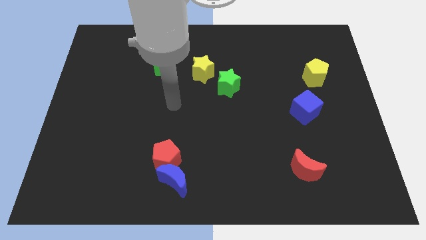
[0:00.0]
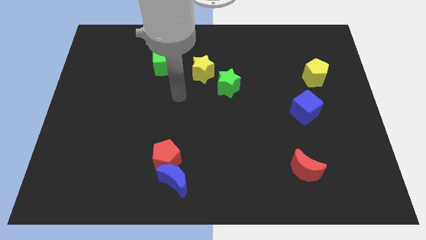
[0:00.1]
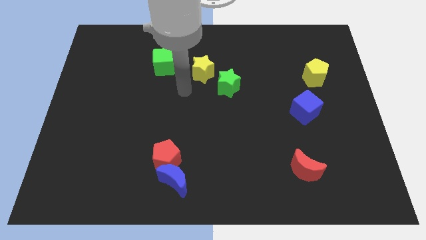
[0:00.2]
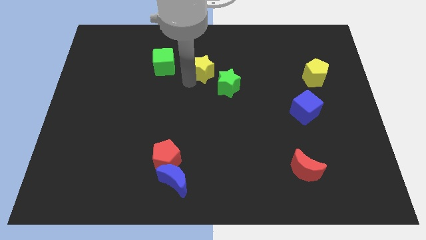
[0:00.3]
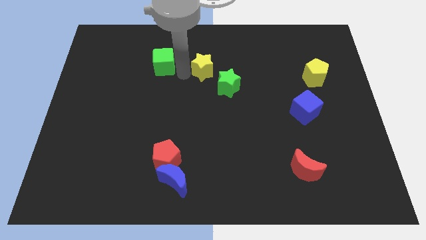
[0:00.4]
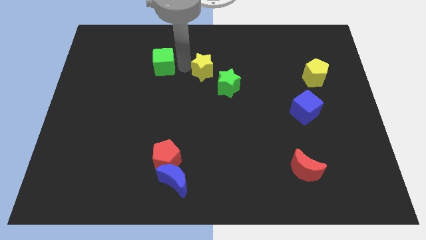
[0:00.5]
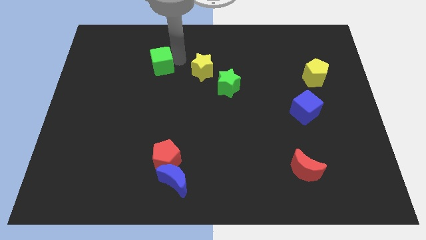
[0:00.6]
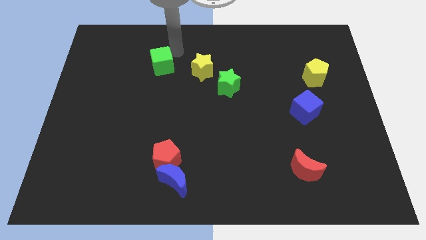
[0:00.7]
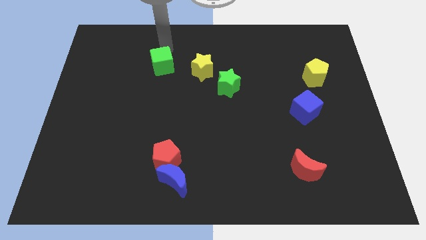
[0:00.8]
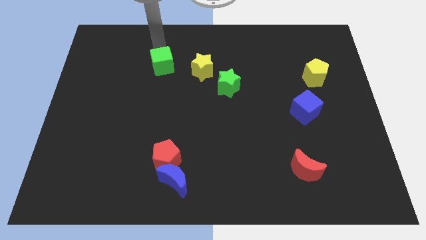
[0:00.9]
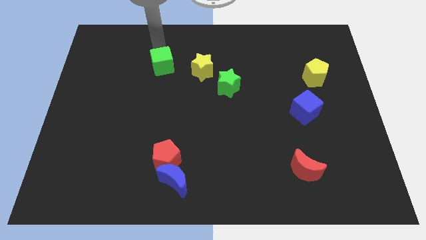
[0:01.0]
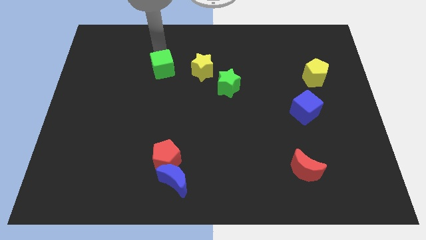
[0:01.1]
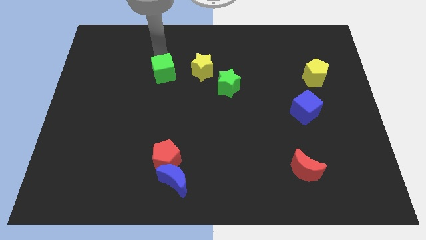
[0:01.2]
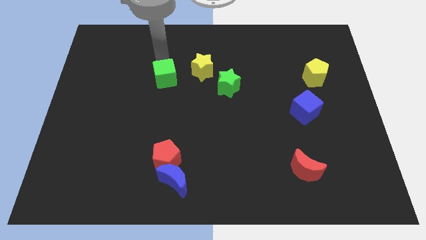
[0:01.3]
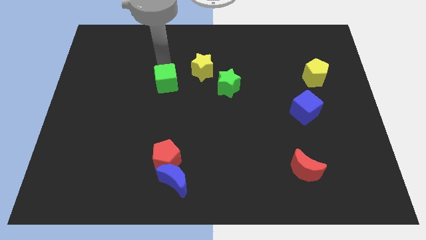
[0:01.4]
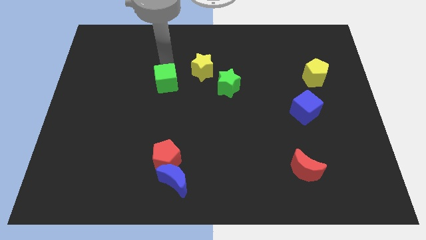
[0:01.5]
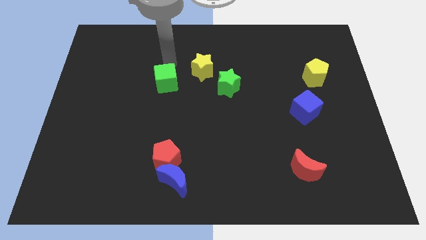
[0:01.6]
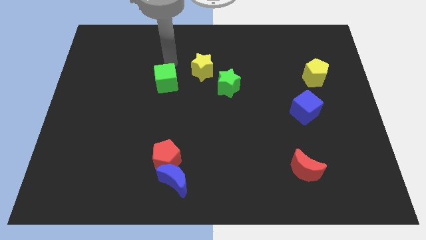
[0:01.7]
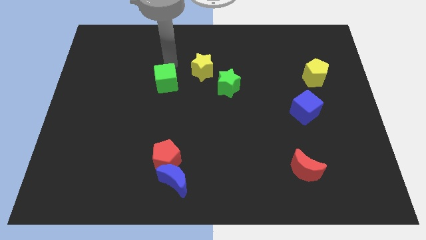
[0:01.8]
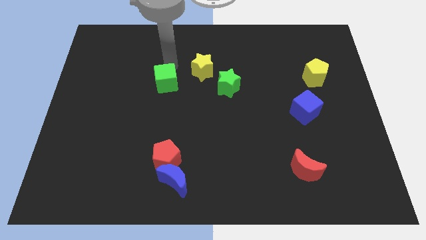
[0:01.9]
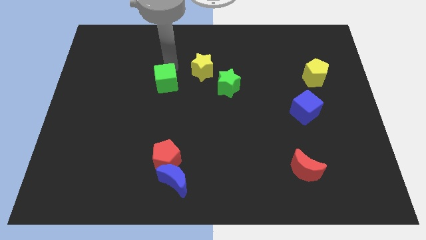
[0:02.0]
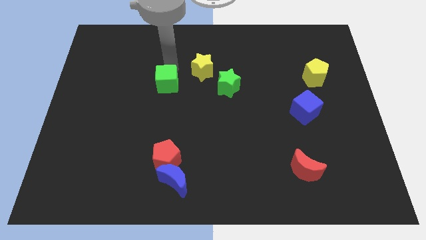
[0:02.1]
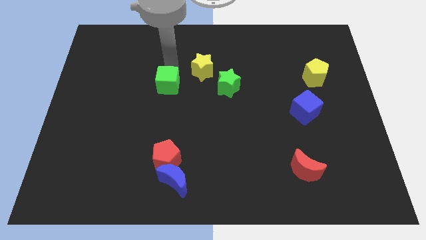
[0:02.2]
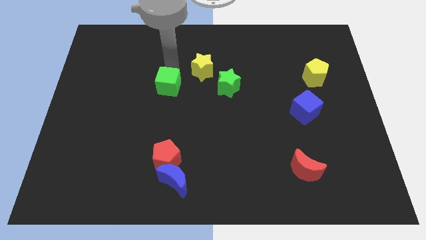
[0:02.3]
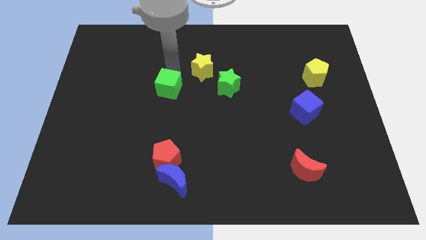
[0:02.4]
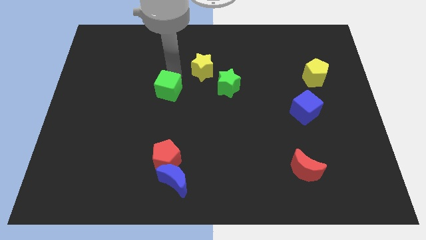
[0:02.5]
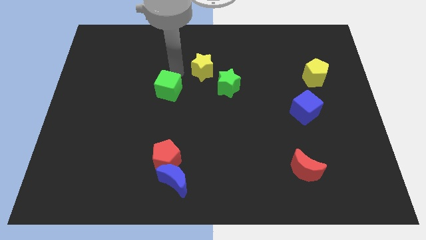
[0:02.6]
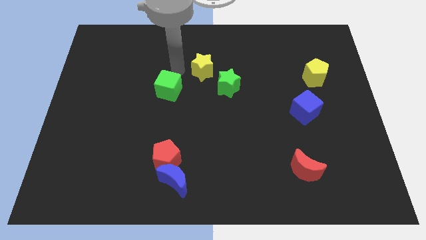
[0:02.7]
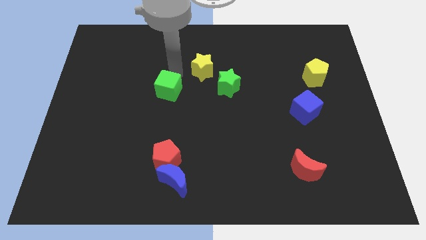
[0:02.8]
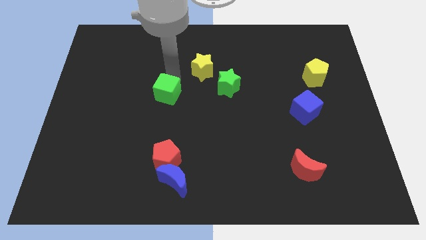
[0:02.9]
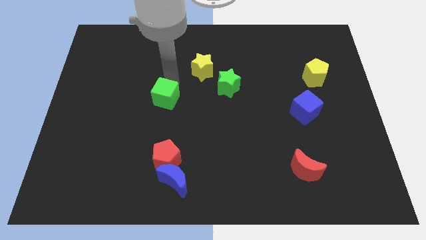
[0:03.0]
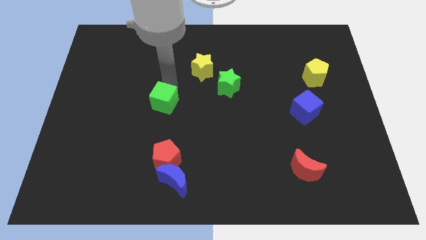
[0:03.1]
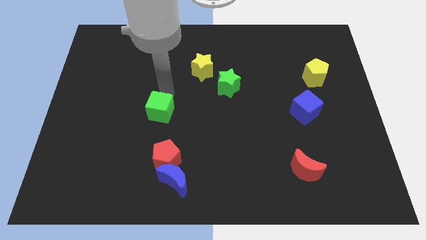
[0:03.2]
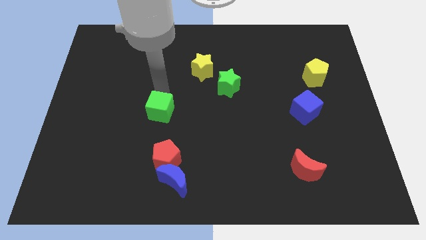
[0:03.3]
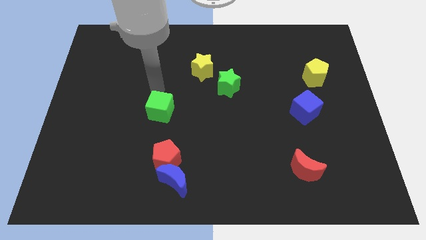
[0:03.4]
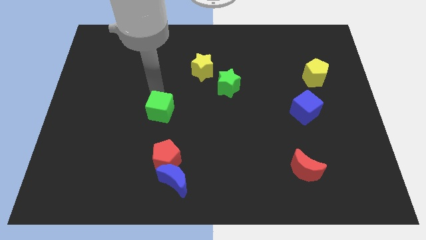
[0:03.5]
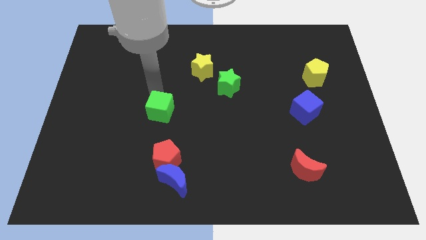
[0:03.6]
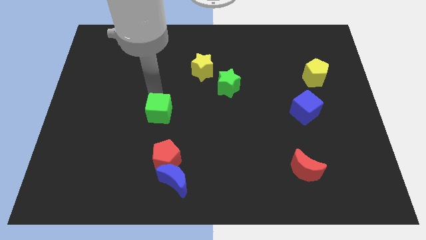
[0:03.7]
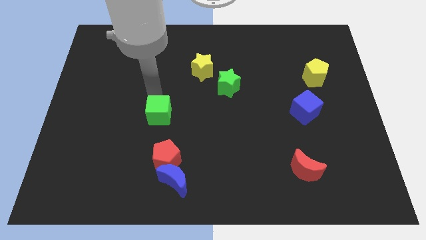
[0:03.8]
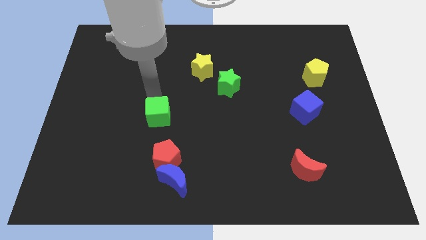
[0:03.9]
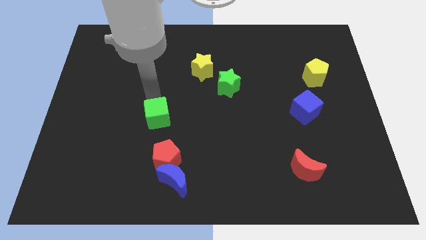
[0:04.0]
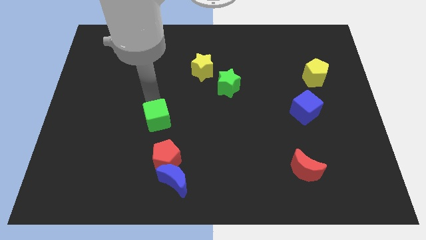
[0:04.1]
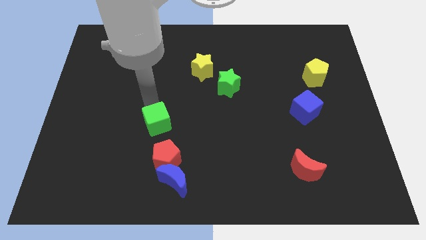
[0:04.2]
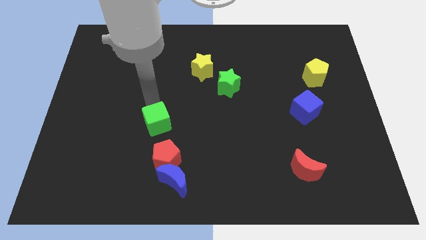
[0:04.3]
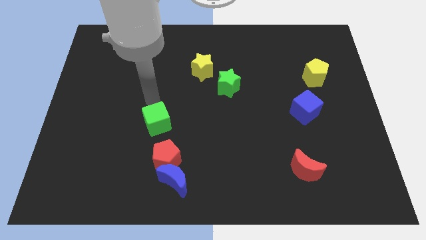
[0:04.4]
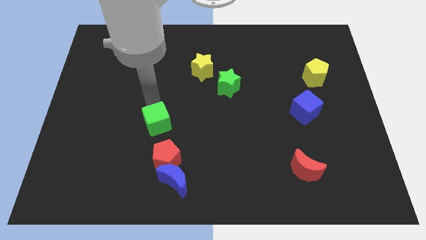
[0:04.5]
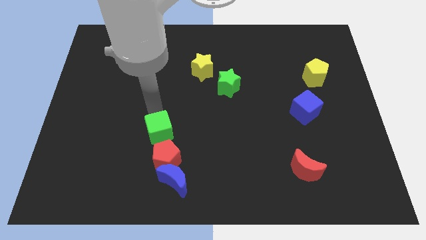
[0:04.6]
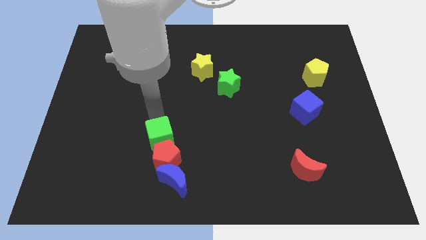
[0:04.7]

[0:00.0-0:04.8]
put the green cube close to the red pentagon

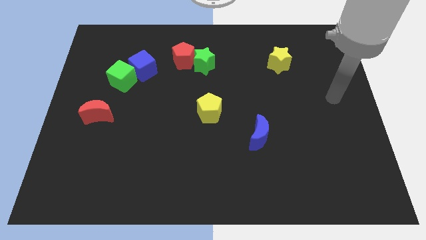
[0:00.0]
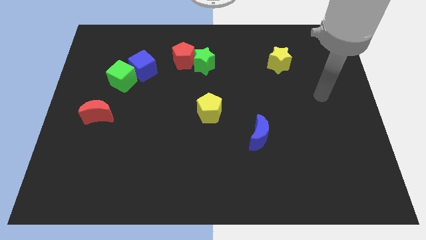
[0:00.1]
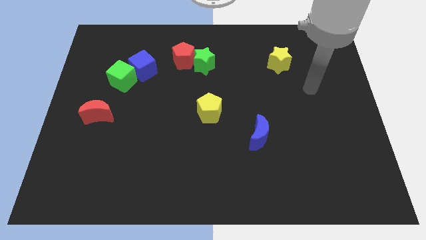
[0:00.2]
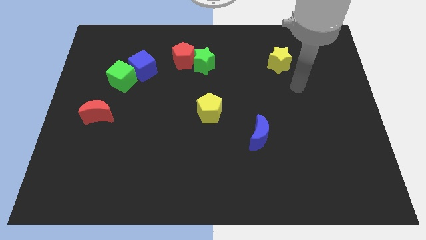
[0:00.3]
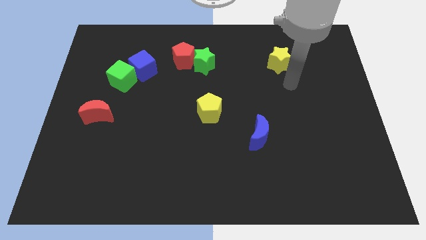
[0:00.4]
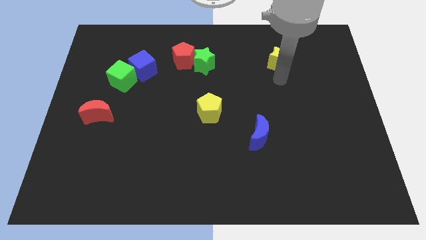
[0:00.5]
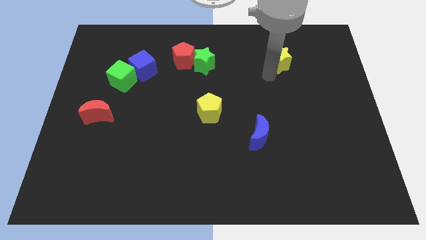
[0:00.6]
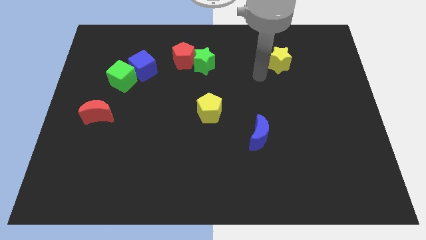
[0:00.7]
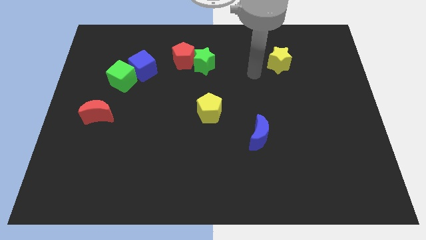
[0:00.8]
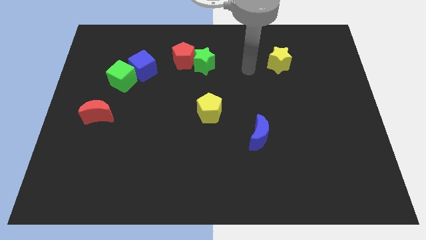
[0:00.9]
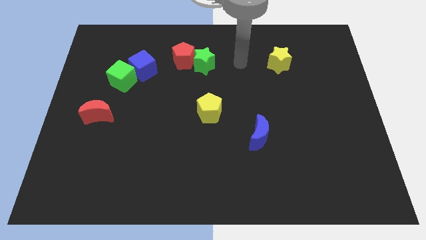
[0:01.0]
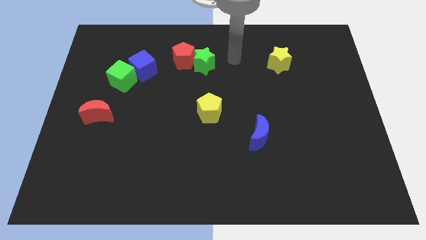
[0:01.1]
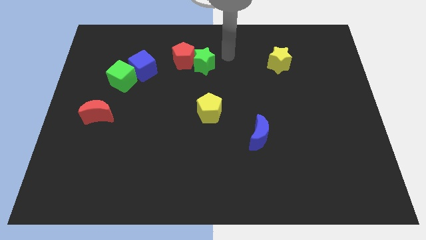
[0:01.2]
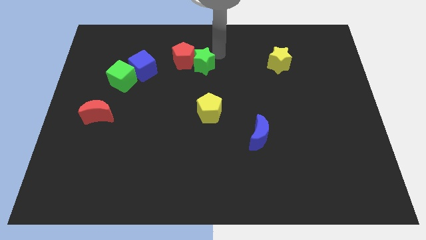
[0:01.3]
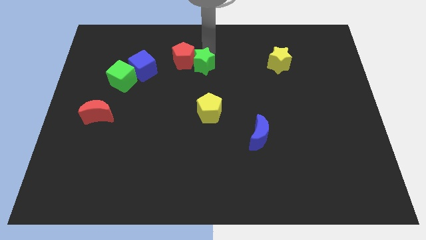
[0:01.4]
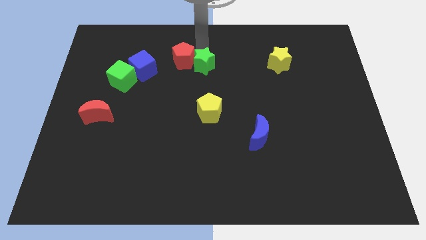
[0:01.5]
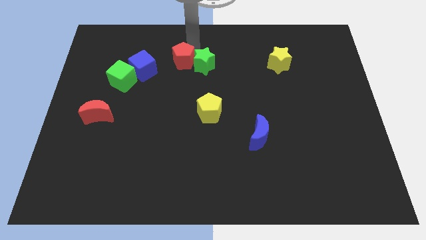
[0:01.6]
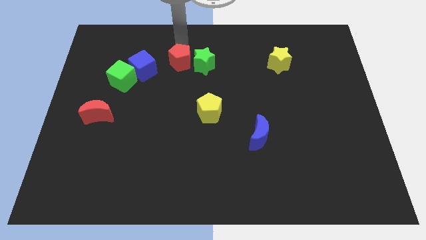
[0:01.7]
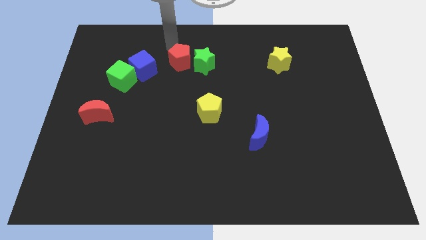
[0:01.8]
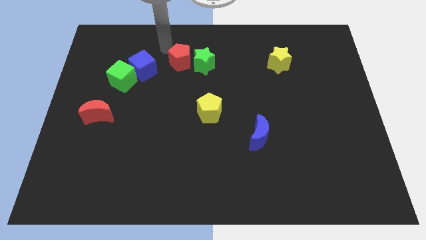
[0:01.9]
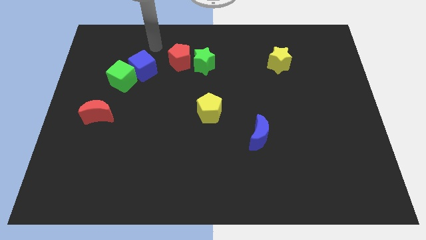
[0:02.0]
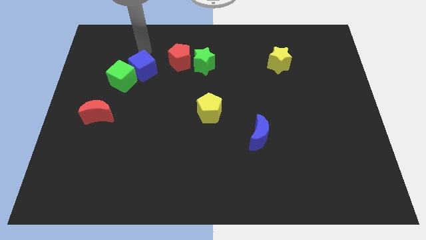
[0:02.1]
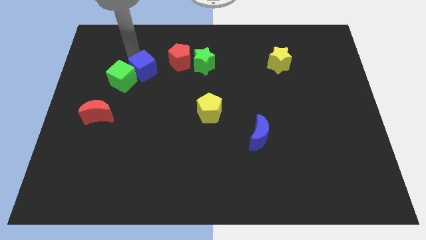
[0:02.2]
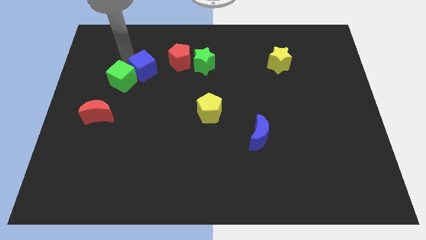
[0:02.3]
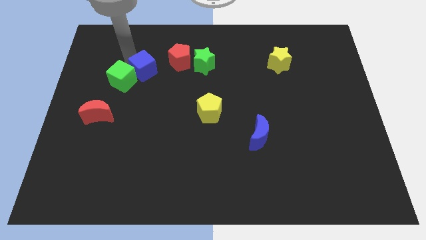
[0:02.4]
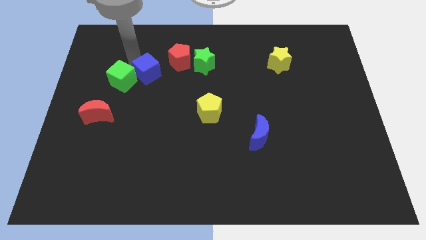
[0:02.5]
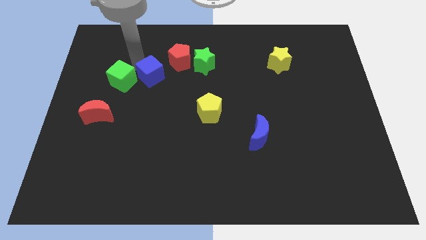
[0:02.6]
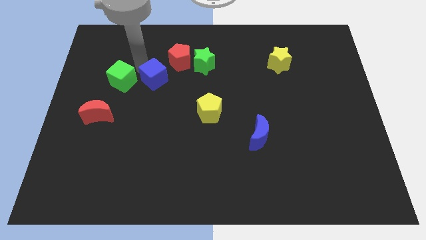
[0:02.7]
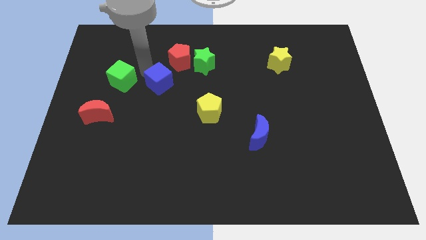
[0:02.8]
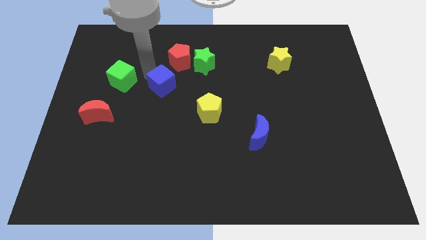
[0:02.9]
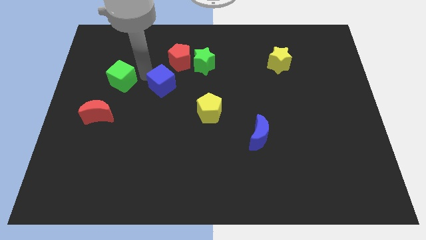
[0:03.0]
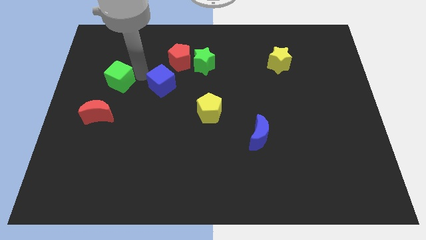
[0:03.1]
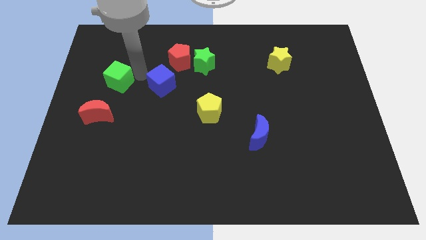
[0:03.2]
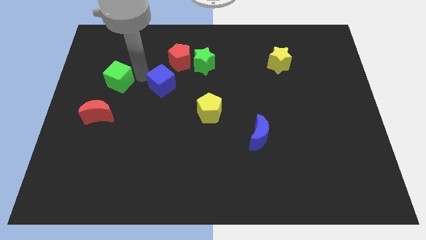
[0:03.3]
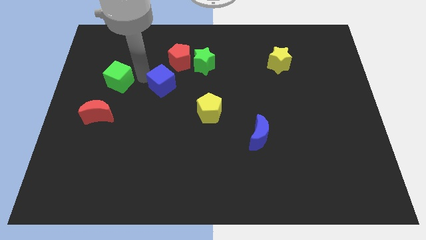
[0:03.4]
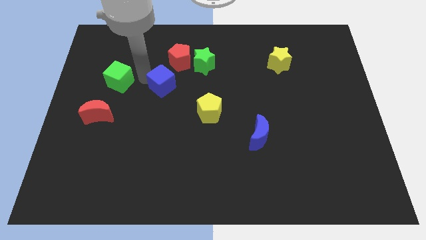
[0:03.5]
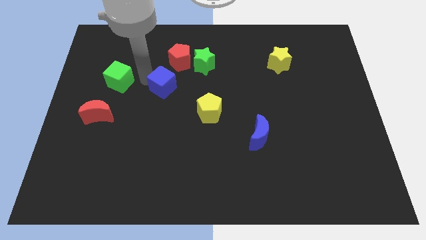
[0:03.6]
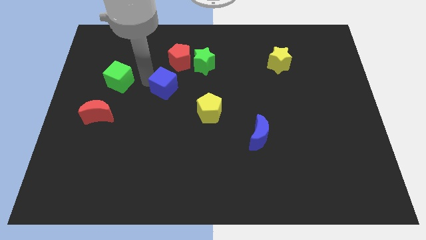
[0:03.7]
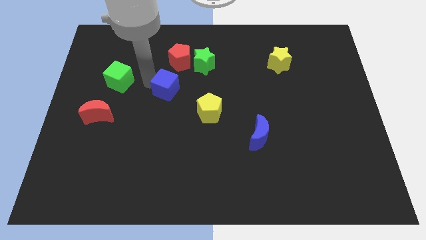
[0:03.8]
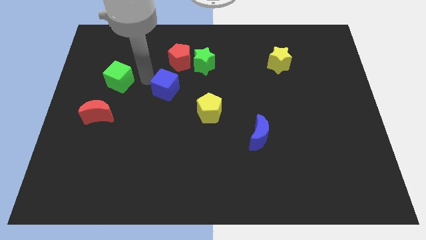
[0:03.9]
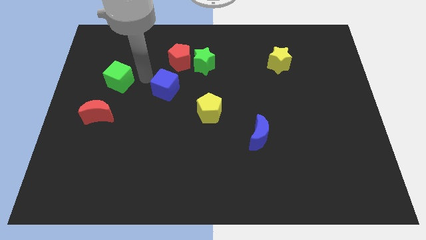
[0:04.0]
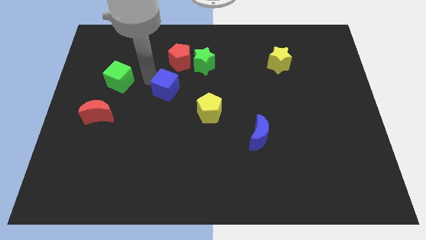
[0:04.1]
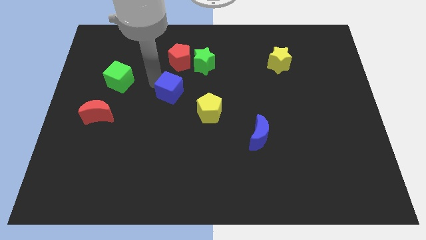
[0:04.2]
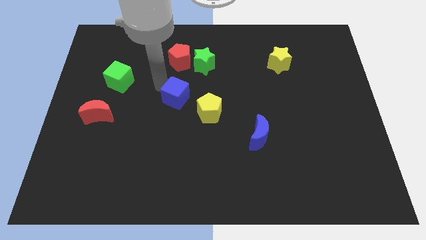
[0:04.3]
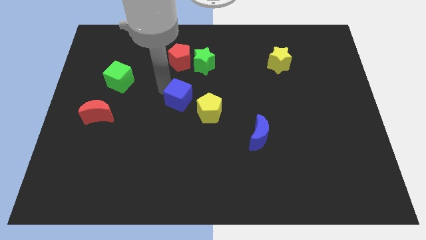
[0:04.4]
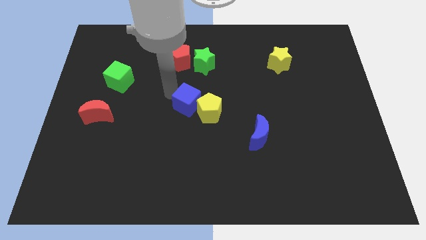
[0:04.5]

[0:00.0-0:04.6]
slide the blue cube towards the yellow pentagon
